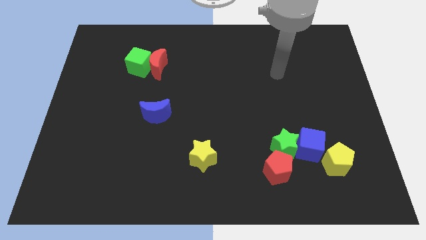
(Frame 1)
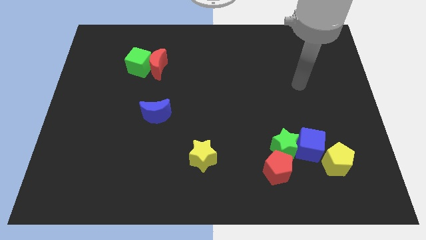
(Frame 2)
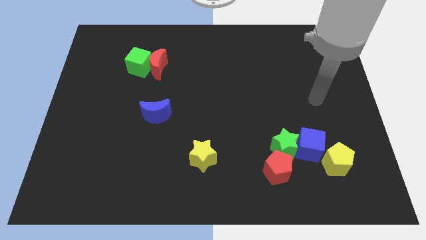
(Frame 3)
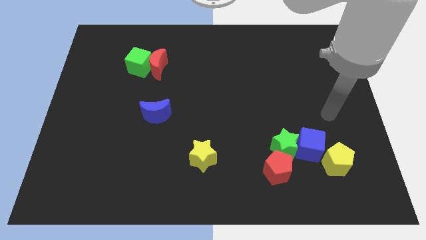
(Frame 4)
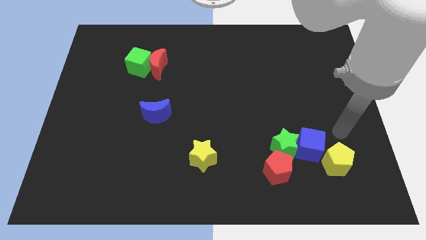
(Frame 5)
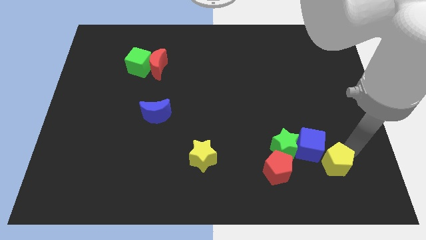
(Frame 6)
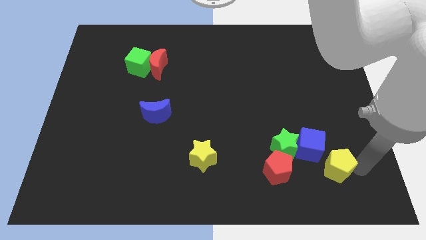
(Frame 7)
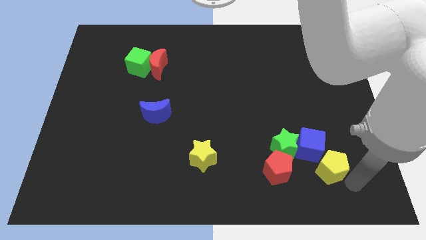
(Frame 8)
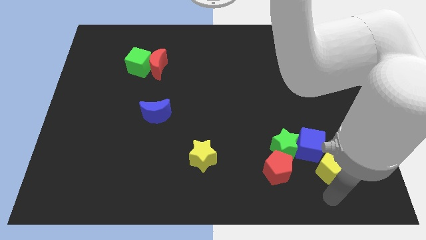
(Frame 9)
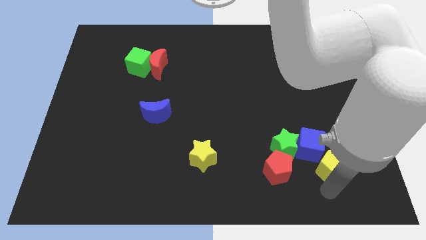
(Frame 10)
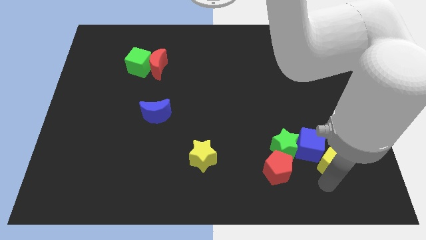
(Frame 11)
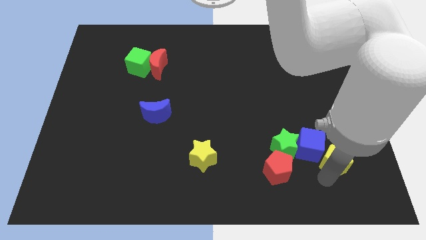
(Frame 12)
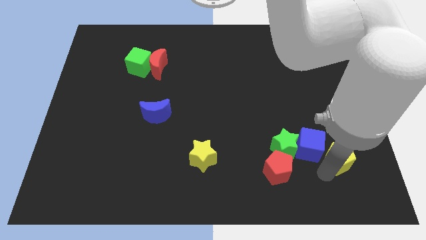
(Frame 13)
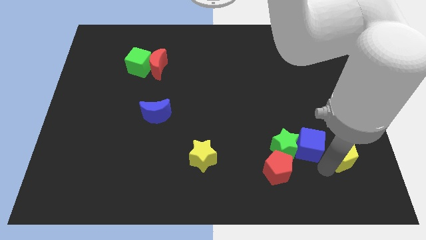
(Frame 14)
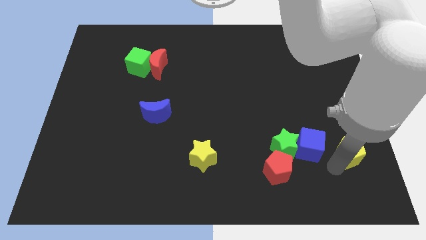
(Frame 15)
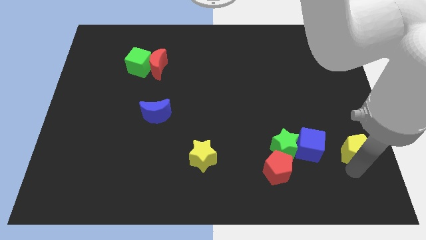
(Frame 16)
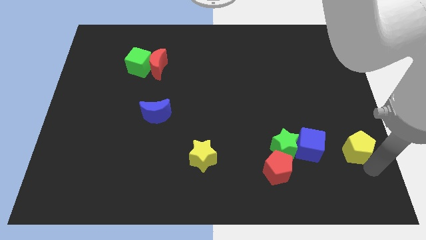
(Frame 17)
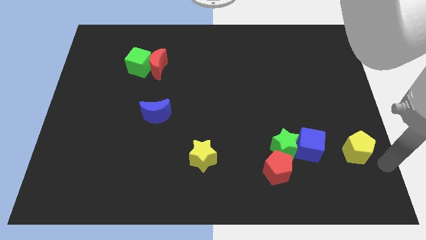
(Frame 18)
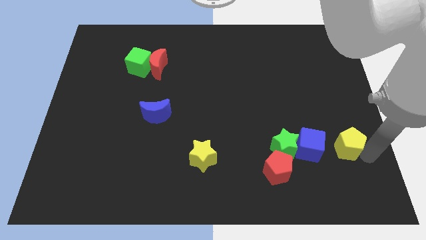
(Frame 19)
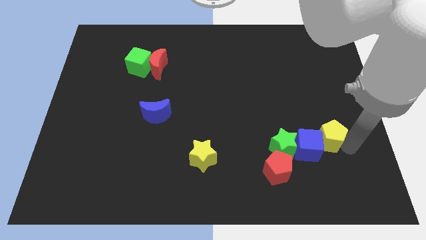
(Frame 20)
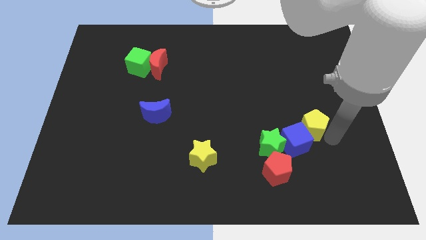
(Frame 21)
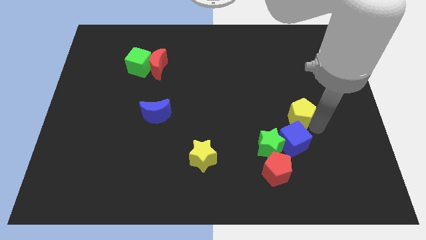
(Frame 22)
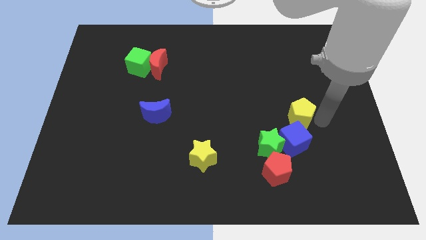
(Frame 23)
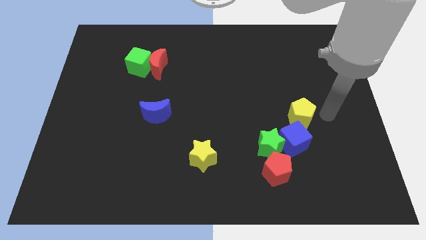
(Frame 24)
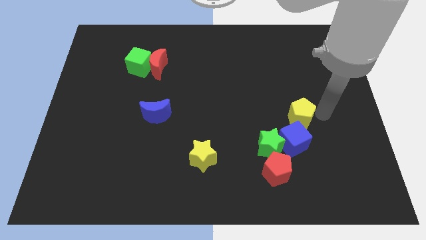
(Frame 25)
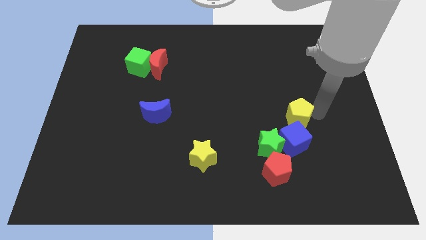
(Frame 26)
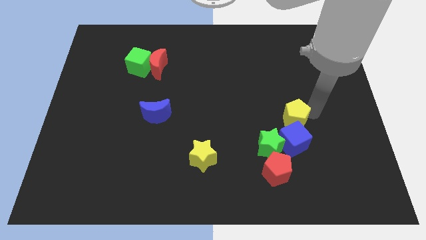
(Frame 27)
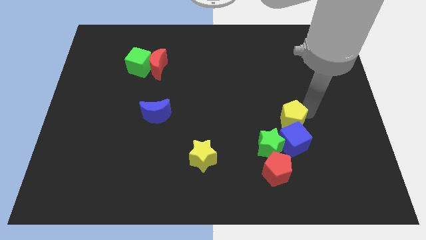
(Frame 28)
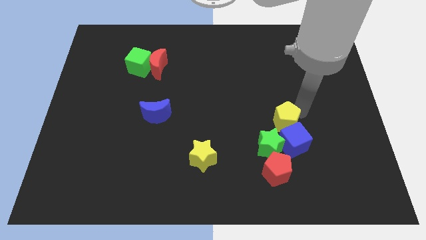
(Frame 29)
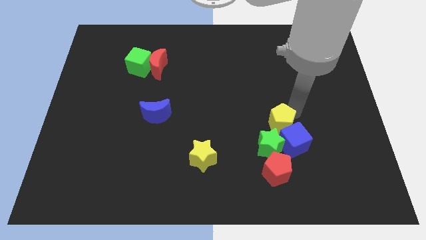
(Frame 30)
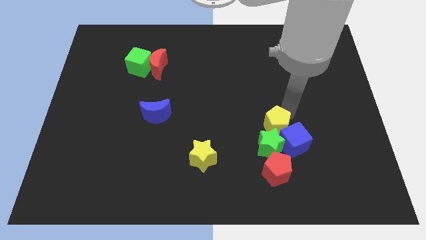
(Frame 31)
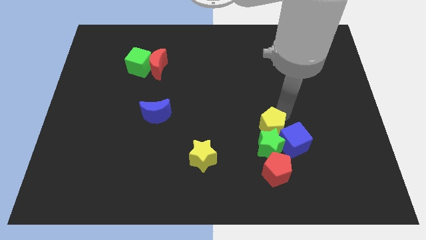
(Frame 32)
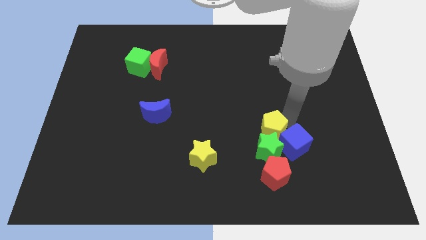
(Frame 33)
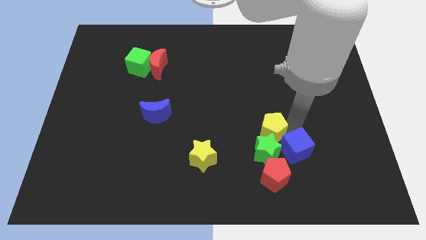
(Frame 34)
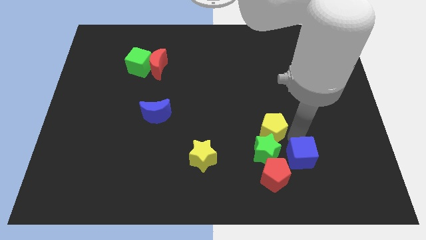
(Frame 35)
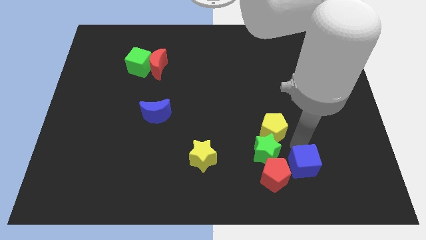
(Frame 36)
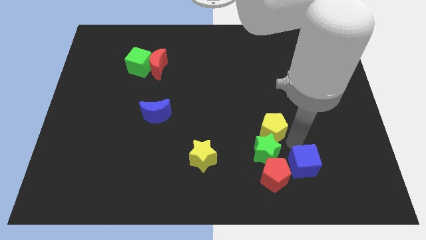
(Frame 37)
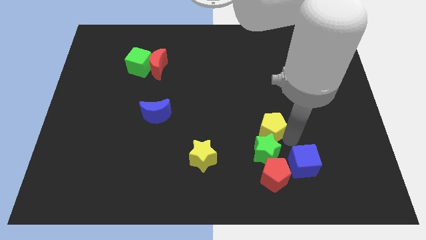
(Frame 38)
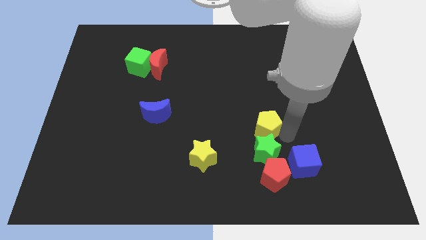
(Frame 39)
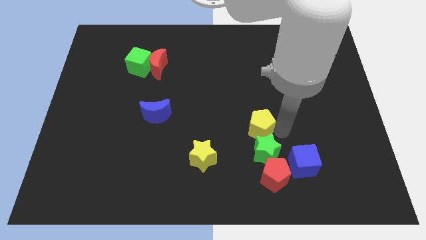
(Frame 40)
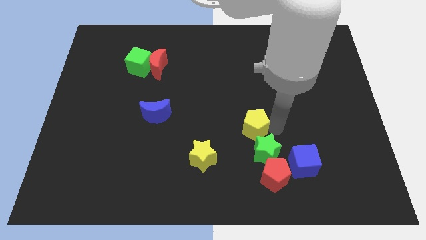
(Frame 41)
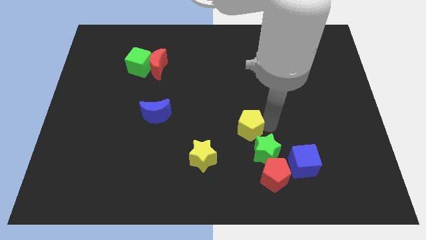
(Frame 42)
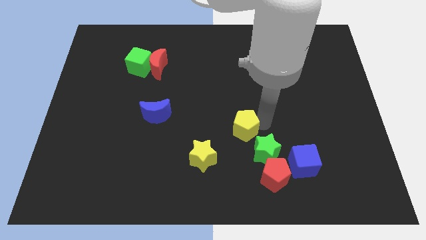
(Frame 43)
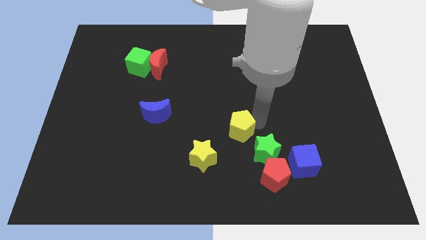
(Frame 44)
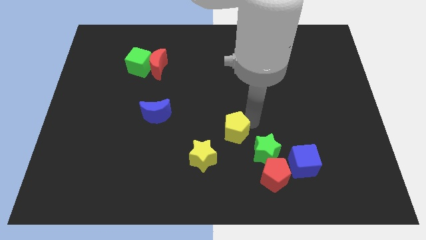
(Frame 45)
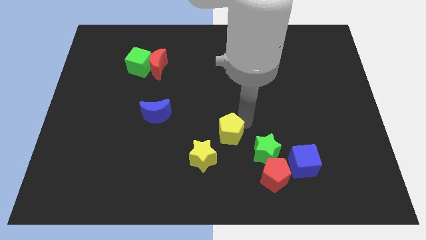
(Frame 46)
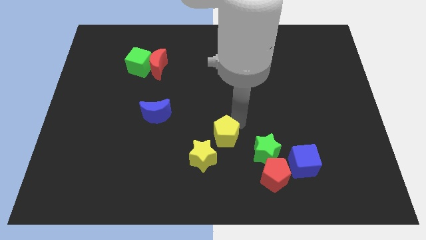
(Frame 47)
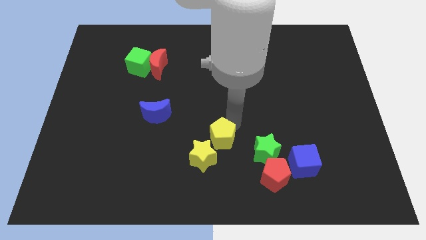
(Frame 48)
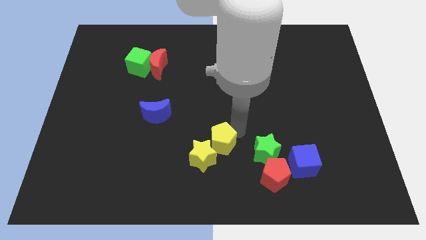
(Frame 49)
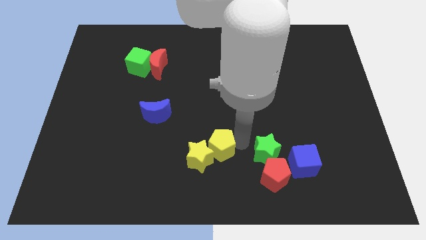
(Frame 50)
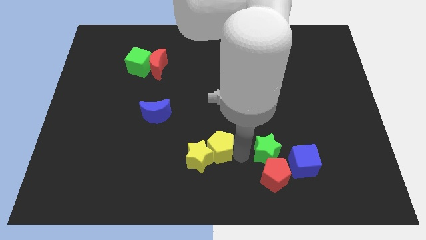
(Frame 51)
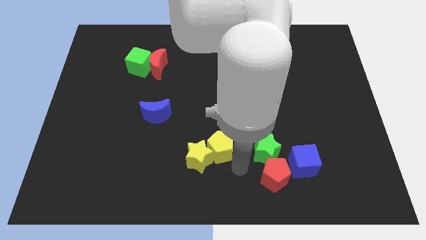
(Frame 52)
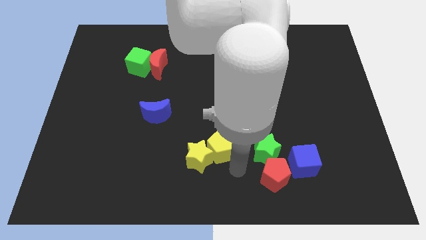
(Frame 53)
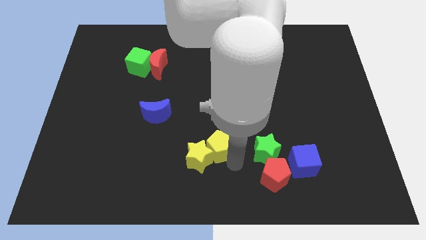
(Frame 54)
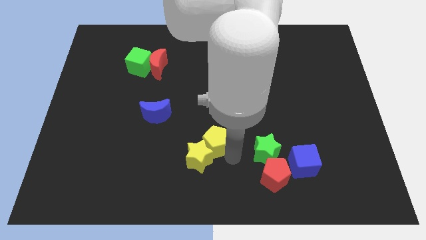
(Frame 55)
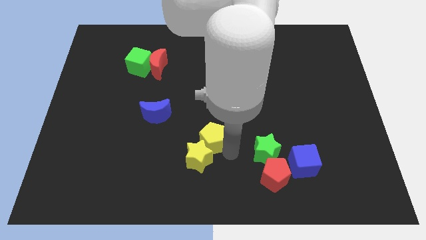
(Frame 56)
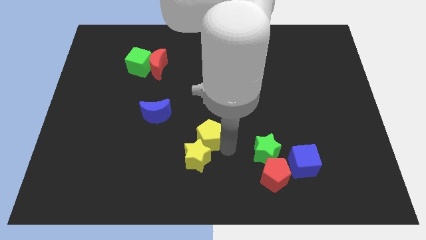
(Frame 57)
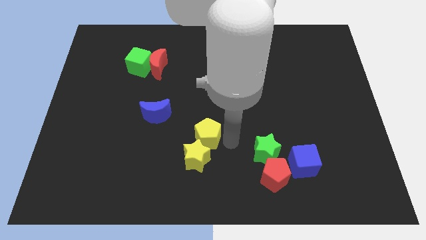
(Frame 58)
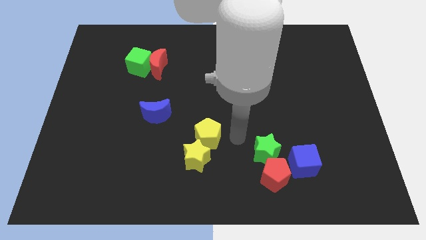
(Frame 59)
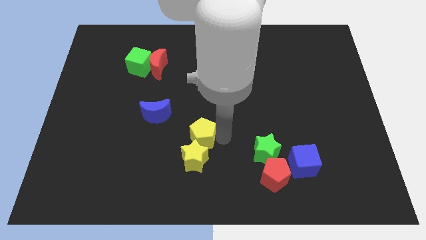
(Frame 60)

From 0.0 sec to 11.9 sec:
move the yellow pentagon diagonally up and to the left of the yellow star

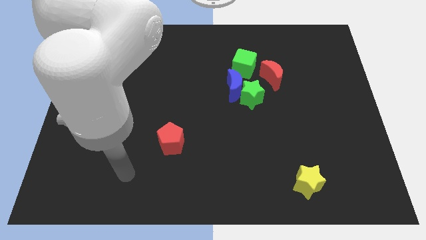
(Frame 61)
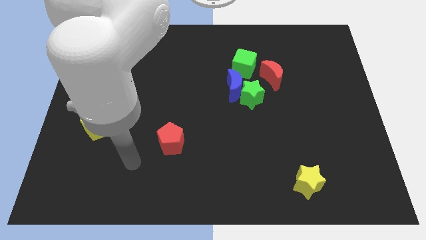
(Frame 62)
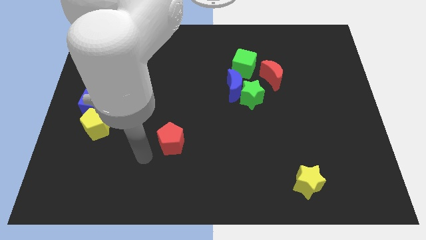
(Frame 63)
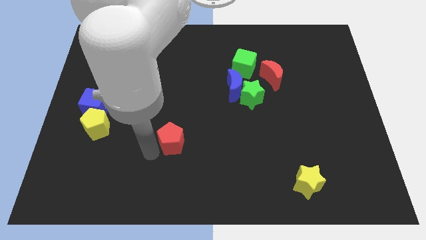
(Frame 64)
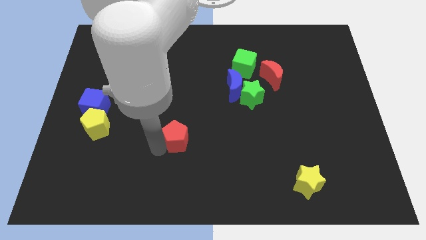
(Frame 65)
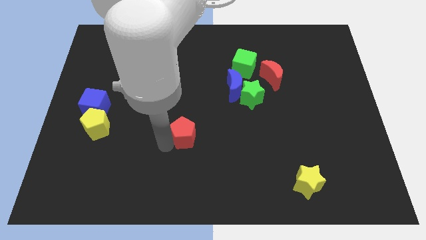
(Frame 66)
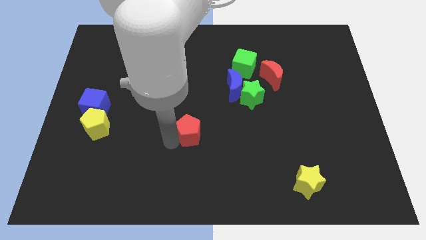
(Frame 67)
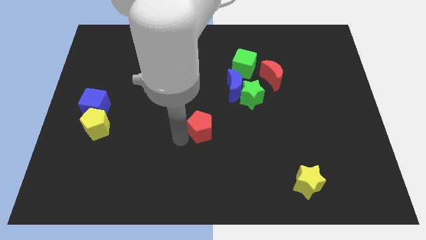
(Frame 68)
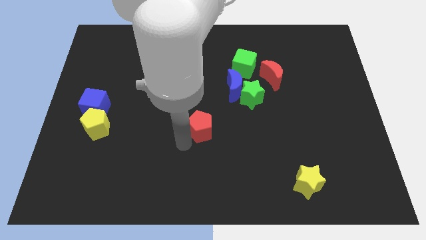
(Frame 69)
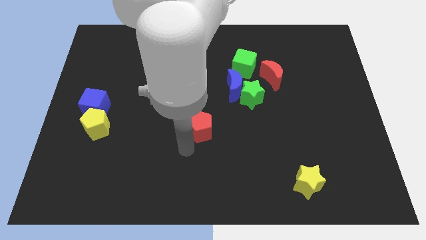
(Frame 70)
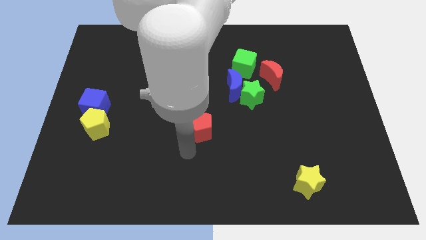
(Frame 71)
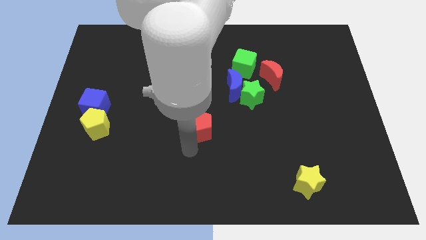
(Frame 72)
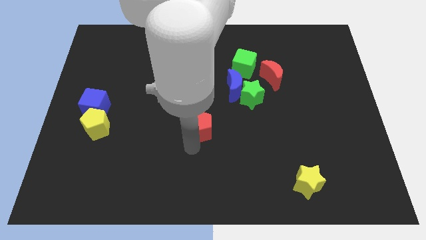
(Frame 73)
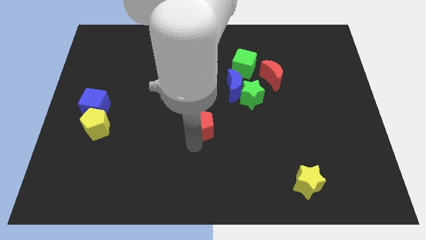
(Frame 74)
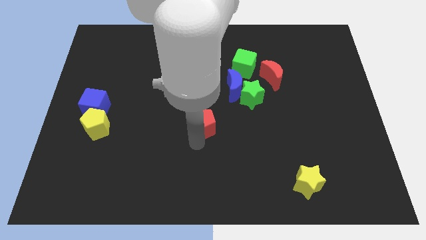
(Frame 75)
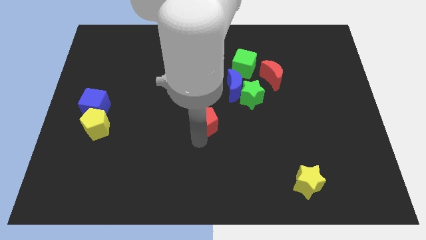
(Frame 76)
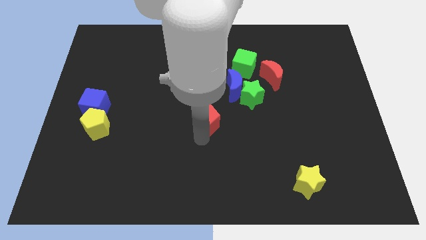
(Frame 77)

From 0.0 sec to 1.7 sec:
move the red pentagon diagonally down and to the left of the blue moon

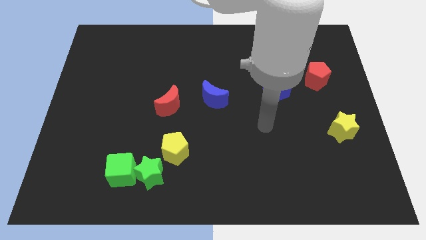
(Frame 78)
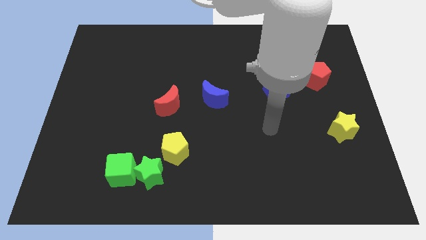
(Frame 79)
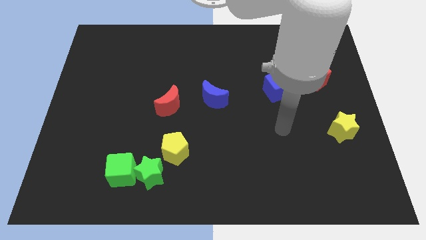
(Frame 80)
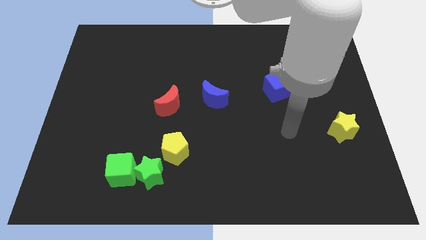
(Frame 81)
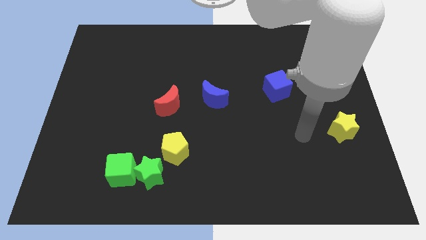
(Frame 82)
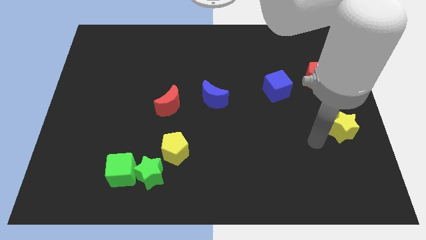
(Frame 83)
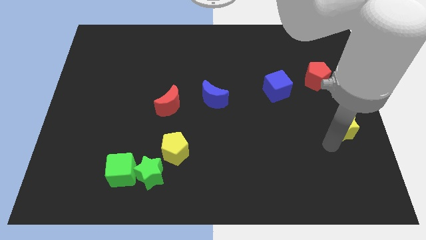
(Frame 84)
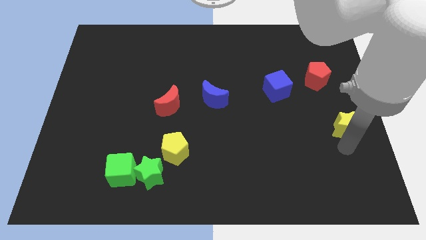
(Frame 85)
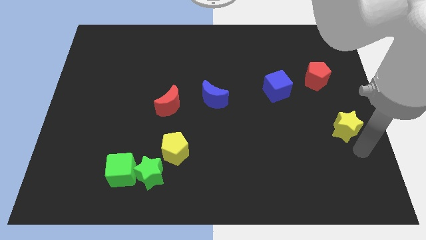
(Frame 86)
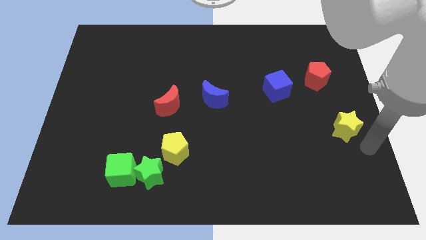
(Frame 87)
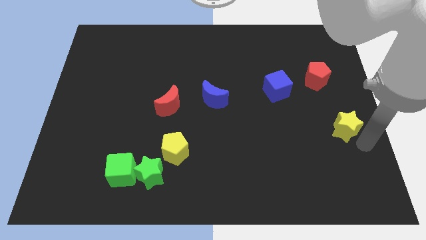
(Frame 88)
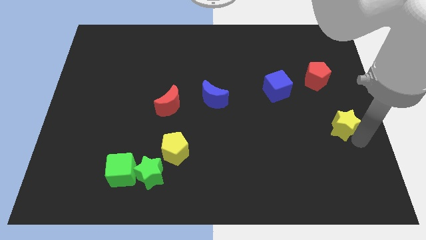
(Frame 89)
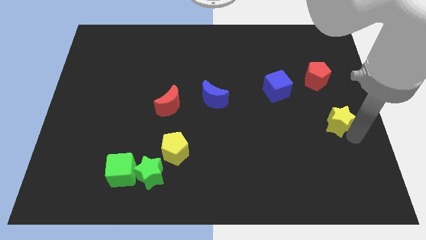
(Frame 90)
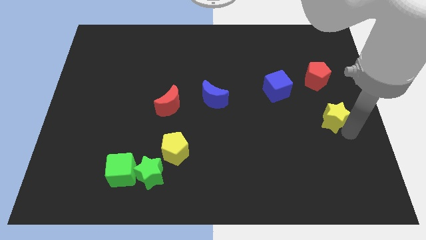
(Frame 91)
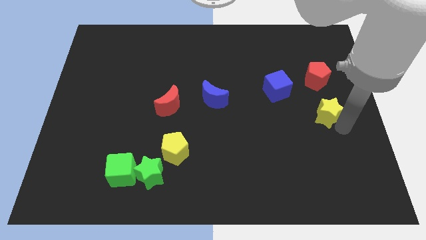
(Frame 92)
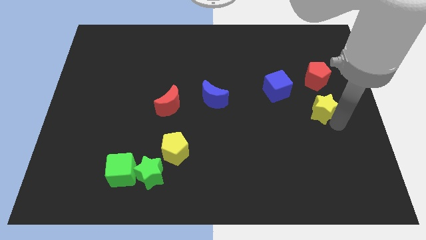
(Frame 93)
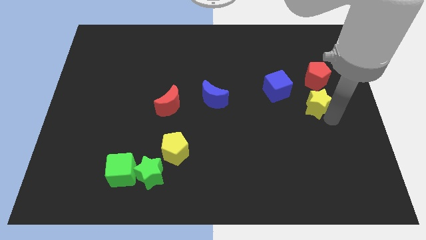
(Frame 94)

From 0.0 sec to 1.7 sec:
move the yellow star to the bottom left of the red pentagon
